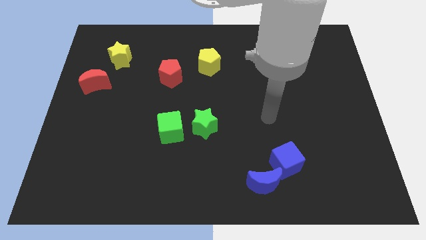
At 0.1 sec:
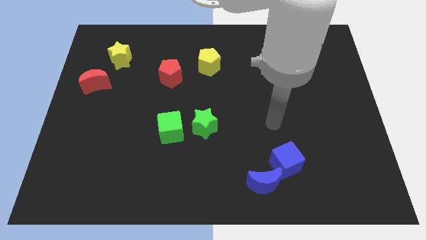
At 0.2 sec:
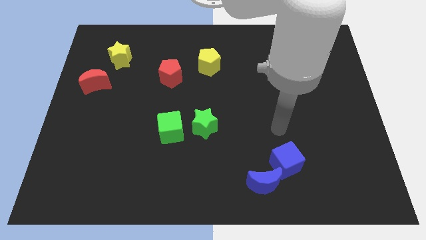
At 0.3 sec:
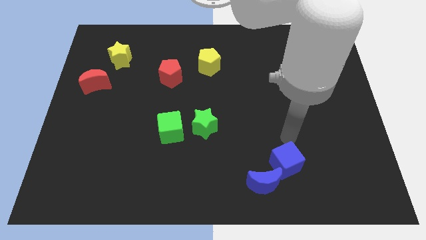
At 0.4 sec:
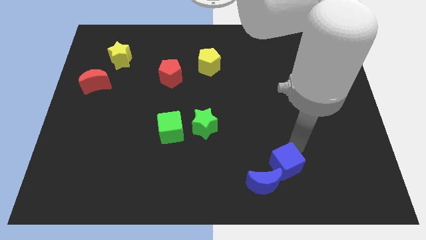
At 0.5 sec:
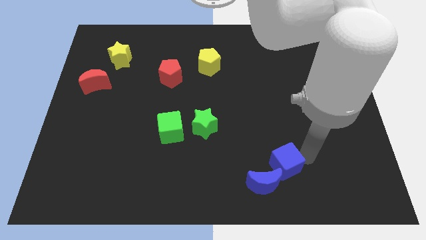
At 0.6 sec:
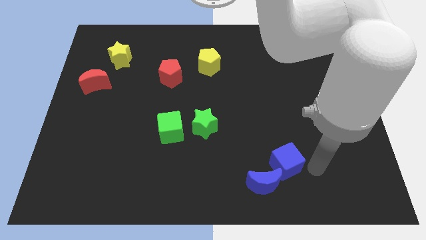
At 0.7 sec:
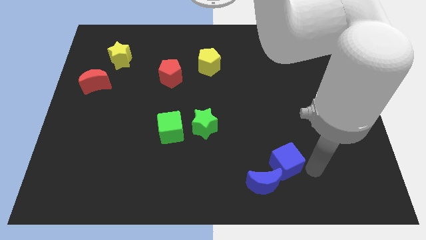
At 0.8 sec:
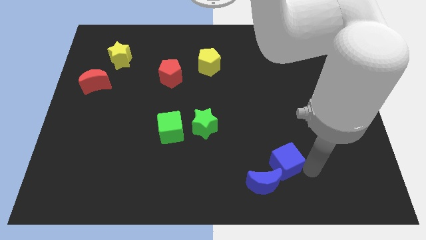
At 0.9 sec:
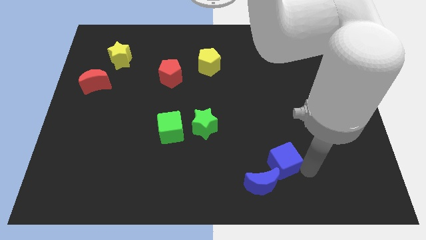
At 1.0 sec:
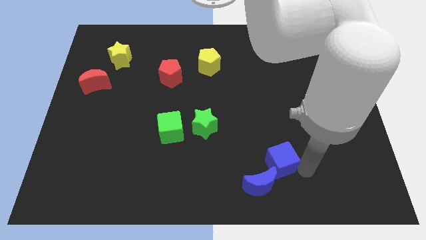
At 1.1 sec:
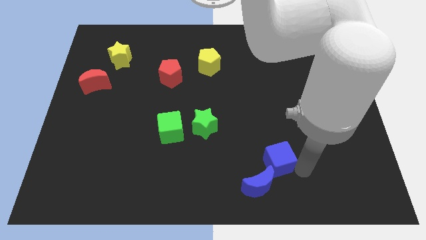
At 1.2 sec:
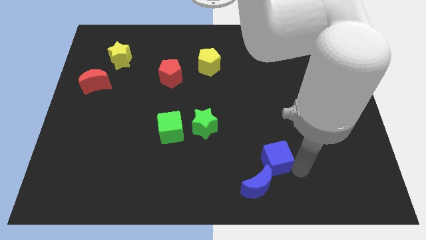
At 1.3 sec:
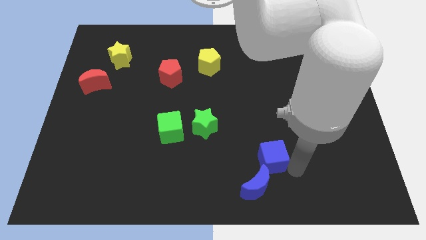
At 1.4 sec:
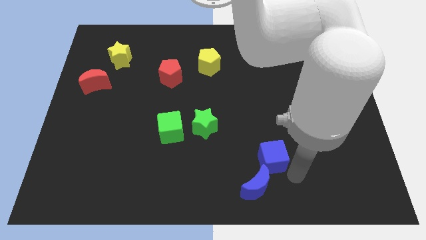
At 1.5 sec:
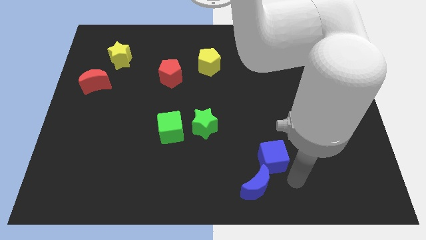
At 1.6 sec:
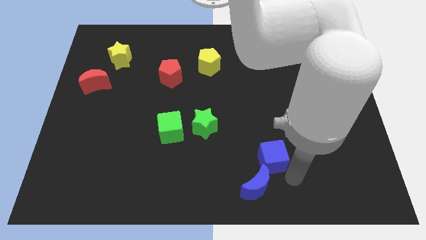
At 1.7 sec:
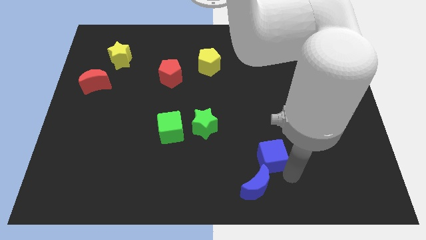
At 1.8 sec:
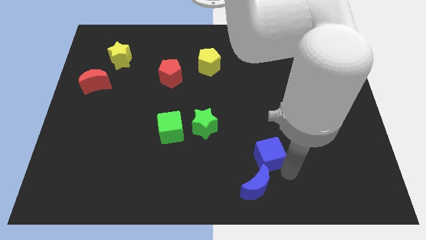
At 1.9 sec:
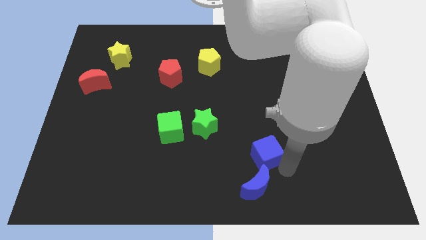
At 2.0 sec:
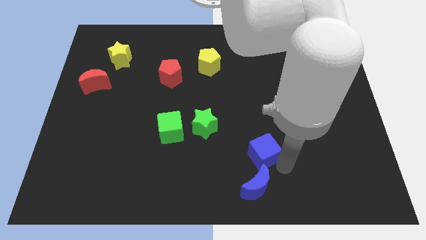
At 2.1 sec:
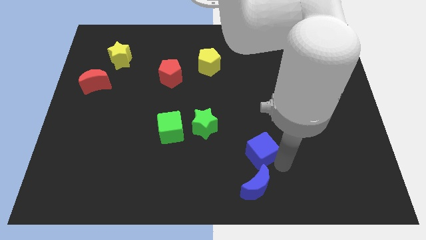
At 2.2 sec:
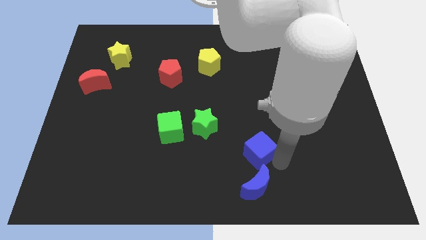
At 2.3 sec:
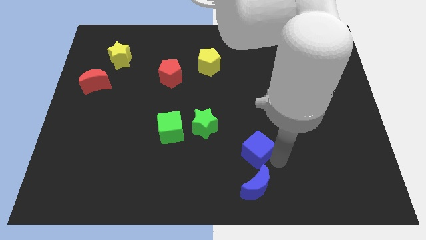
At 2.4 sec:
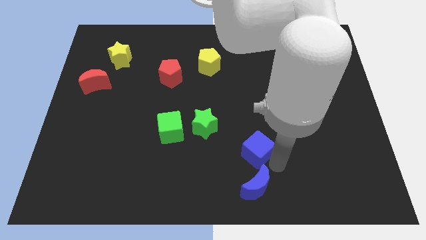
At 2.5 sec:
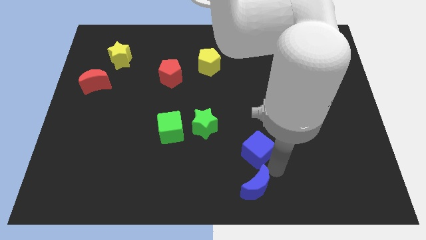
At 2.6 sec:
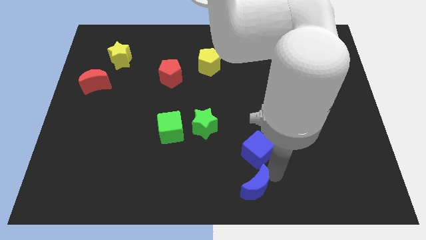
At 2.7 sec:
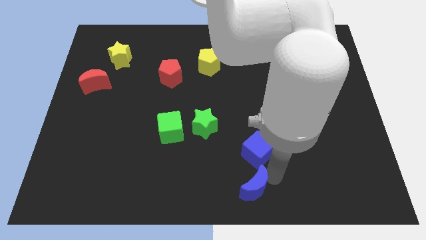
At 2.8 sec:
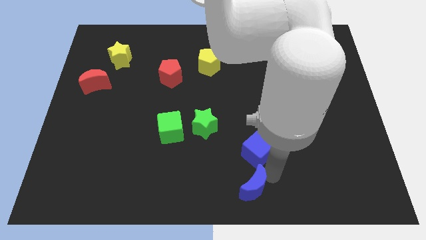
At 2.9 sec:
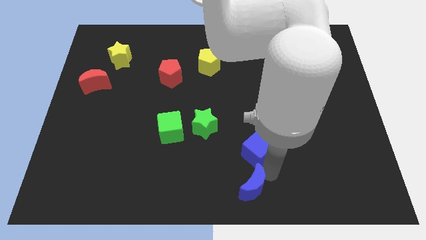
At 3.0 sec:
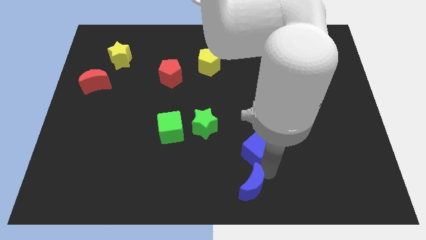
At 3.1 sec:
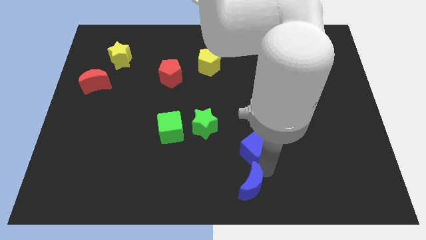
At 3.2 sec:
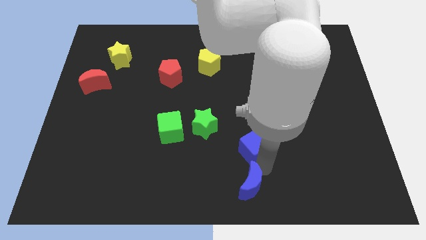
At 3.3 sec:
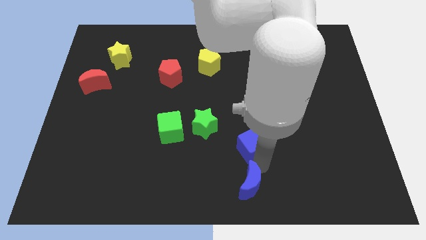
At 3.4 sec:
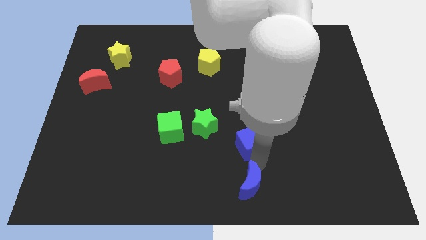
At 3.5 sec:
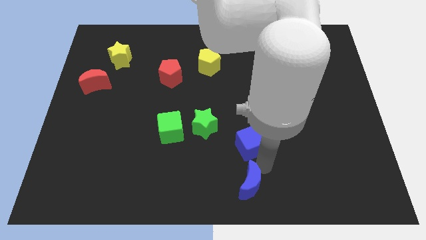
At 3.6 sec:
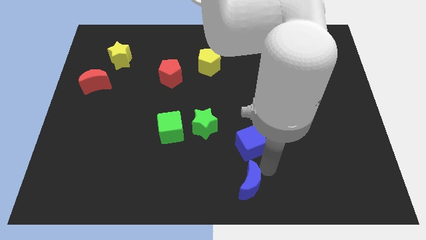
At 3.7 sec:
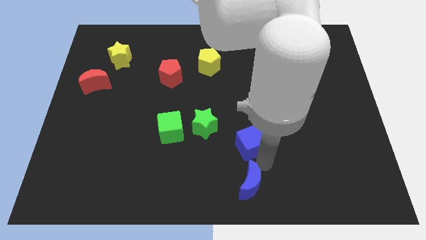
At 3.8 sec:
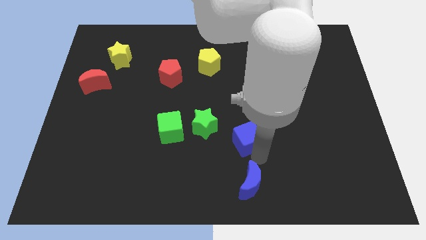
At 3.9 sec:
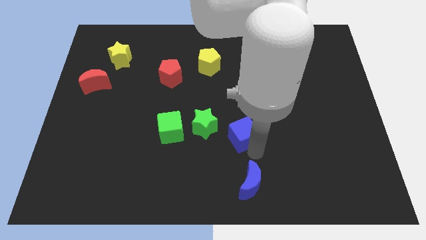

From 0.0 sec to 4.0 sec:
move the blue cube to the center

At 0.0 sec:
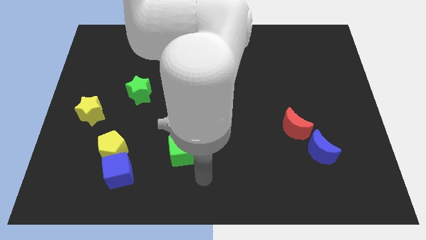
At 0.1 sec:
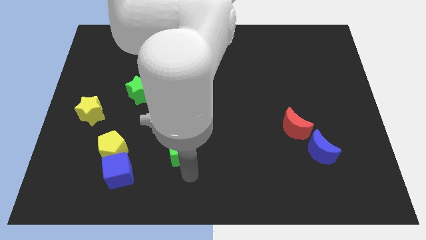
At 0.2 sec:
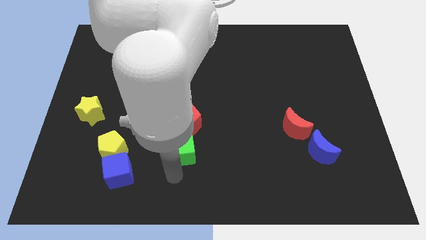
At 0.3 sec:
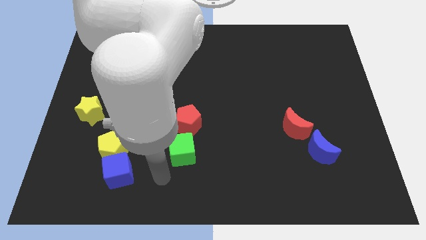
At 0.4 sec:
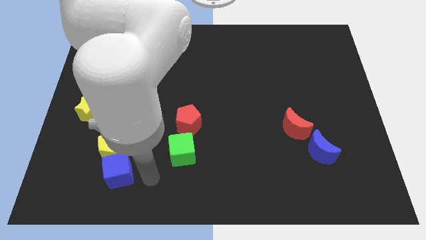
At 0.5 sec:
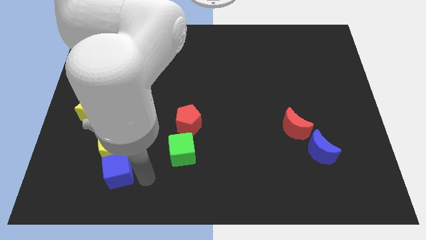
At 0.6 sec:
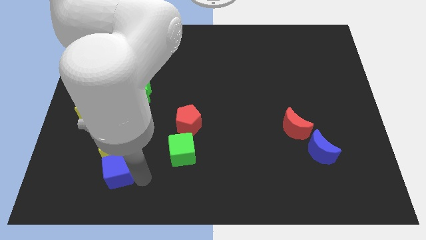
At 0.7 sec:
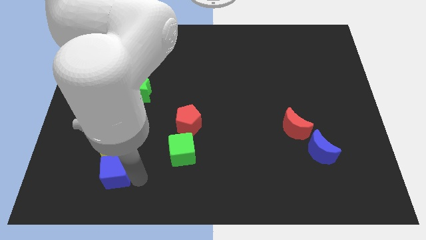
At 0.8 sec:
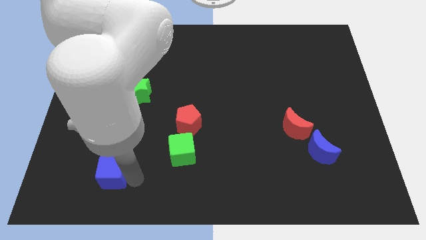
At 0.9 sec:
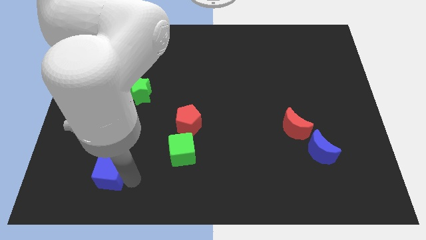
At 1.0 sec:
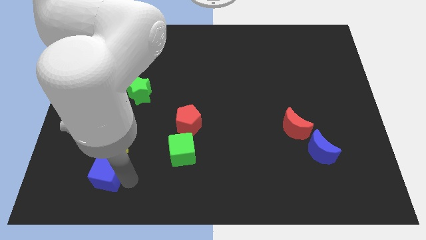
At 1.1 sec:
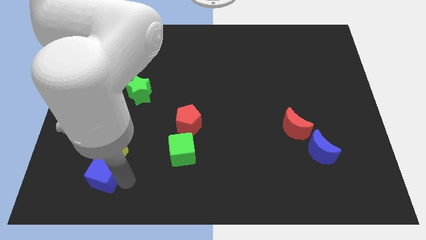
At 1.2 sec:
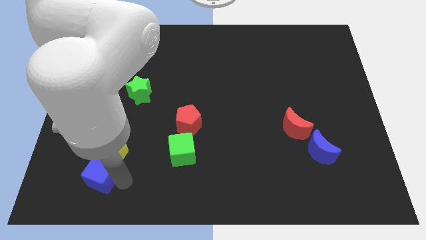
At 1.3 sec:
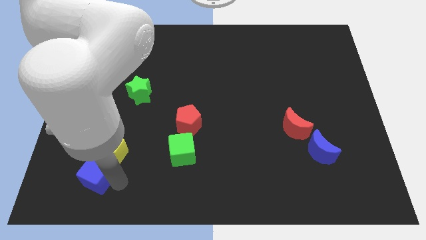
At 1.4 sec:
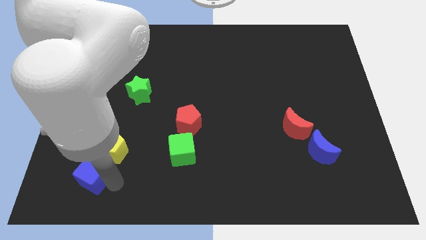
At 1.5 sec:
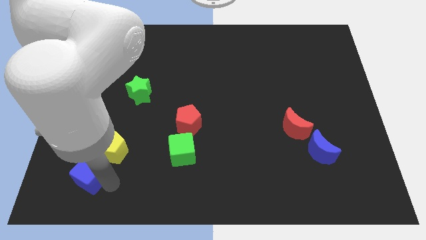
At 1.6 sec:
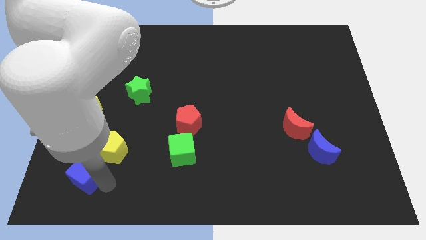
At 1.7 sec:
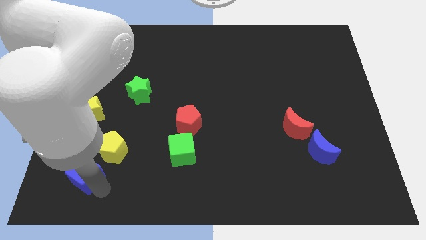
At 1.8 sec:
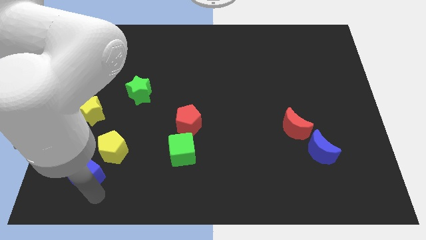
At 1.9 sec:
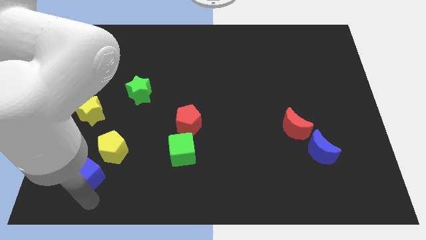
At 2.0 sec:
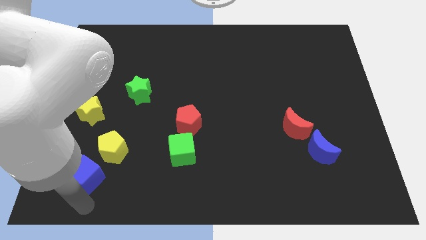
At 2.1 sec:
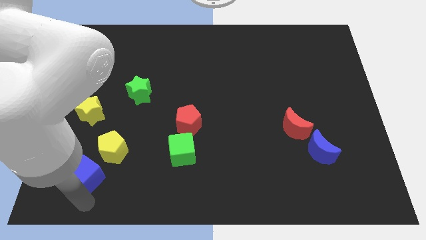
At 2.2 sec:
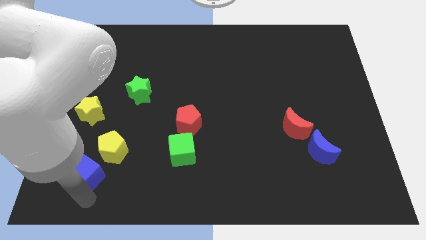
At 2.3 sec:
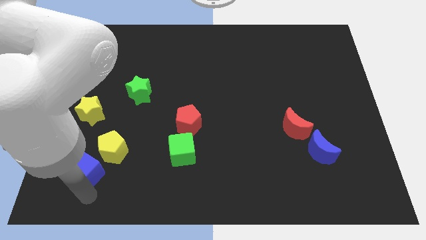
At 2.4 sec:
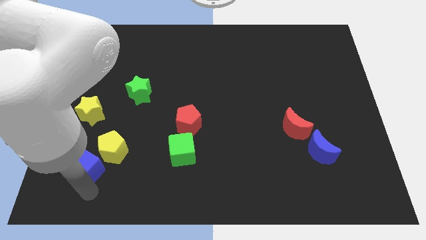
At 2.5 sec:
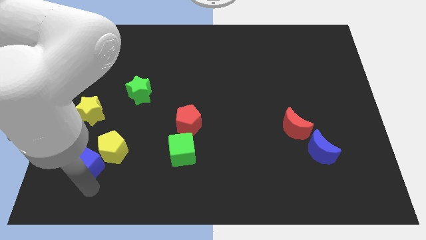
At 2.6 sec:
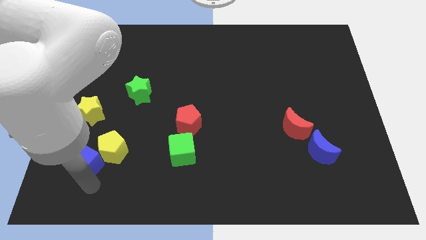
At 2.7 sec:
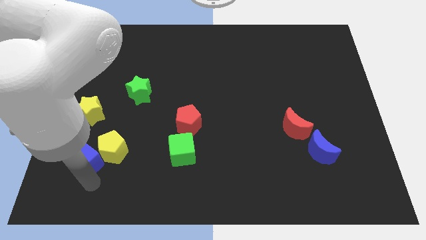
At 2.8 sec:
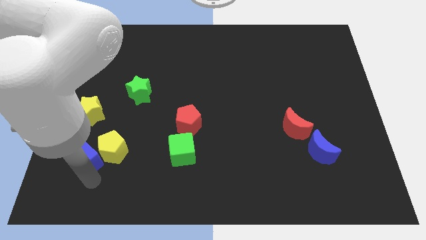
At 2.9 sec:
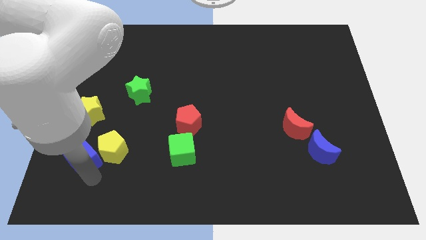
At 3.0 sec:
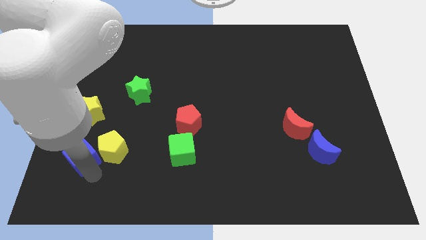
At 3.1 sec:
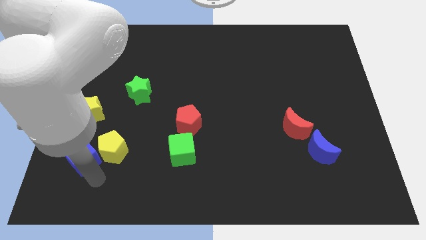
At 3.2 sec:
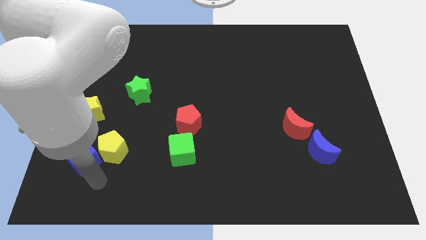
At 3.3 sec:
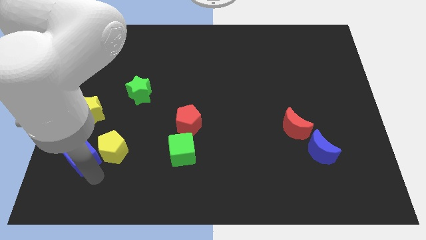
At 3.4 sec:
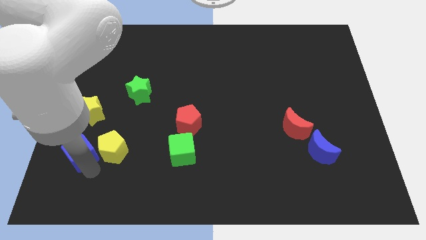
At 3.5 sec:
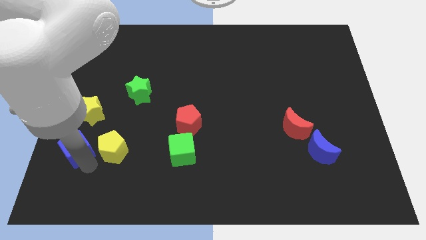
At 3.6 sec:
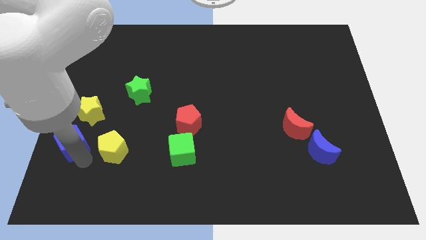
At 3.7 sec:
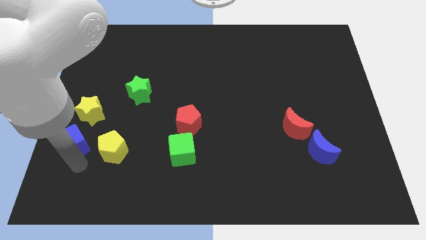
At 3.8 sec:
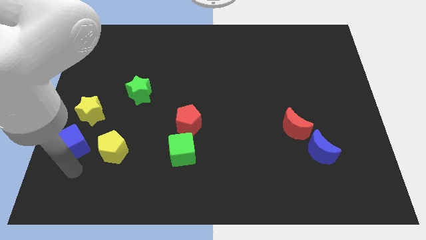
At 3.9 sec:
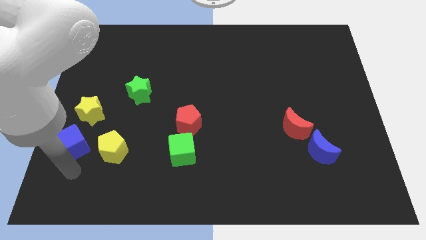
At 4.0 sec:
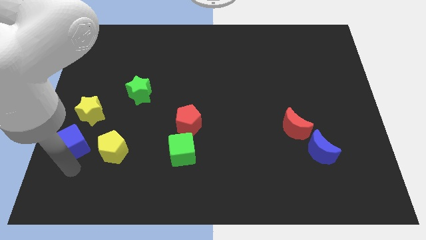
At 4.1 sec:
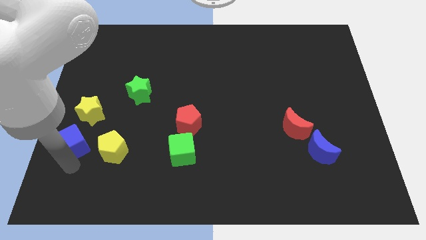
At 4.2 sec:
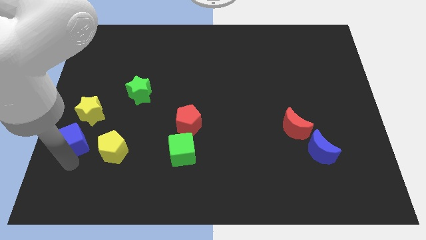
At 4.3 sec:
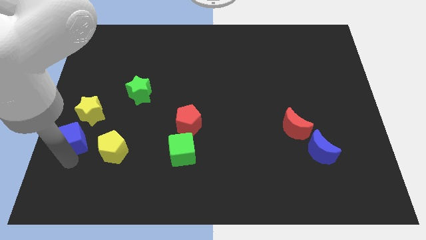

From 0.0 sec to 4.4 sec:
put the blue cube to the left side of the board
